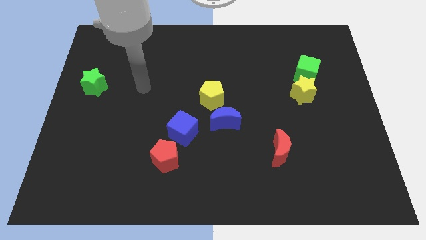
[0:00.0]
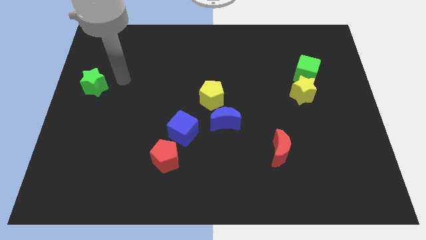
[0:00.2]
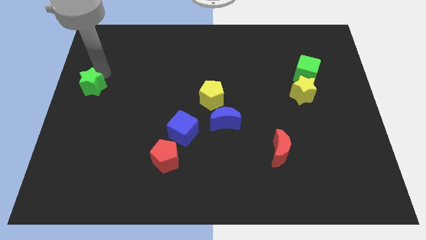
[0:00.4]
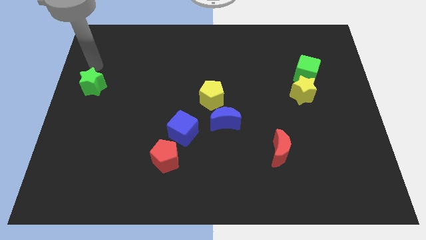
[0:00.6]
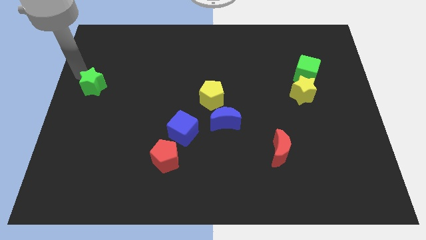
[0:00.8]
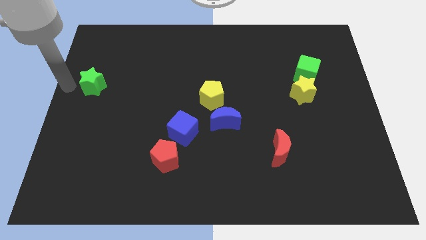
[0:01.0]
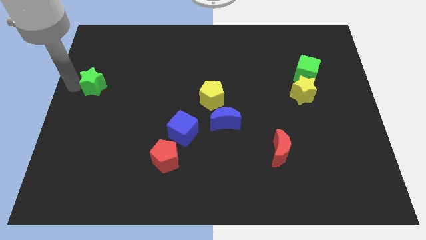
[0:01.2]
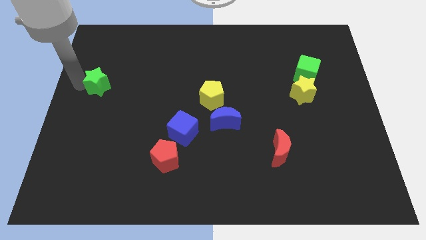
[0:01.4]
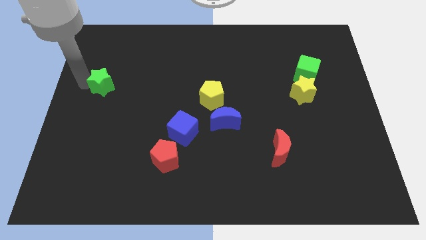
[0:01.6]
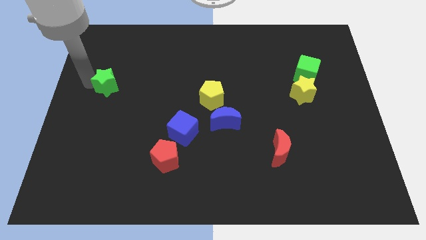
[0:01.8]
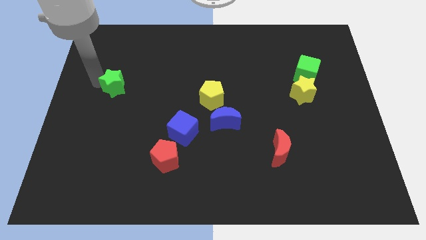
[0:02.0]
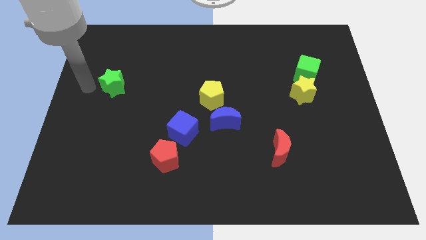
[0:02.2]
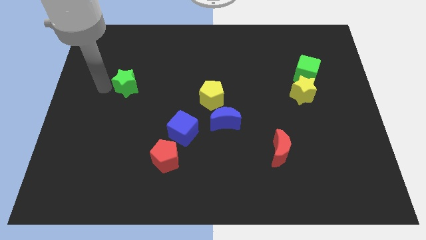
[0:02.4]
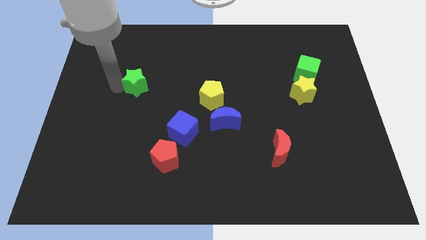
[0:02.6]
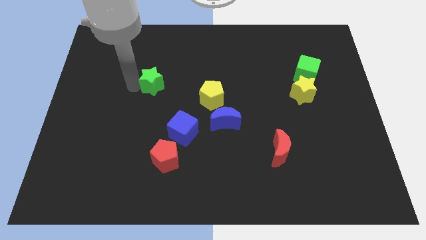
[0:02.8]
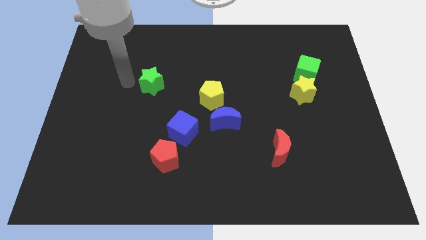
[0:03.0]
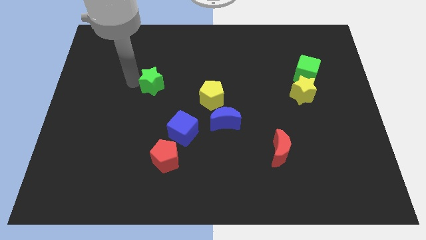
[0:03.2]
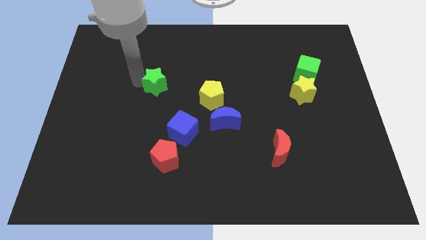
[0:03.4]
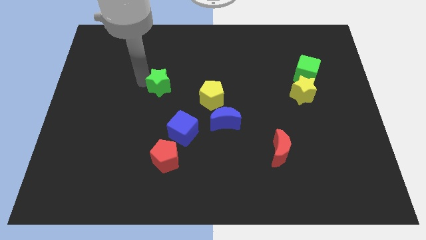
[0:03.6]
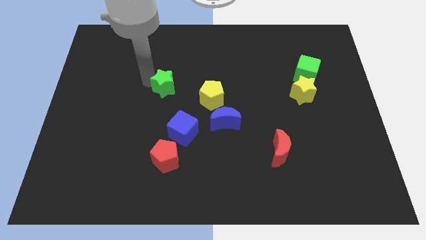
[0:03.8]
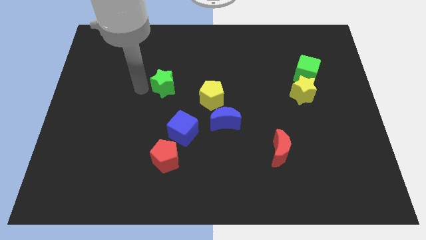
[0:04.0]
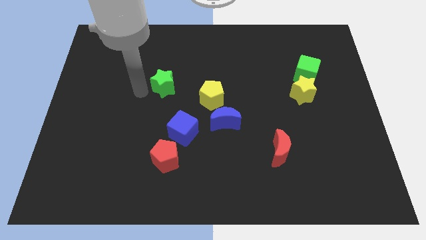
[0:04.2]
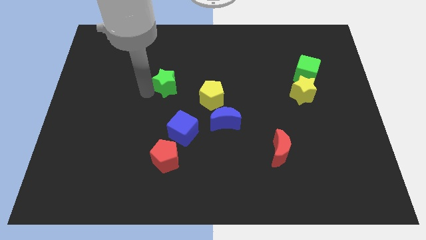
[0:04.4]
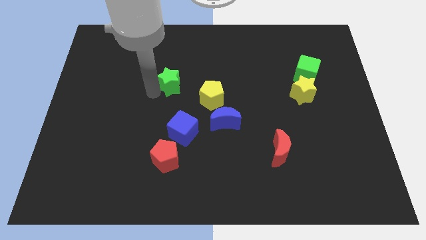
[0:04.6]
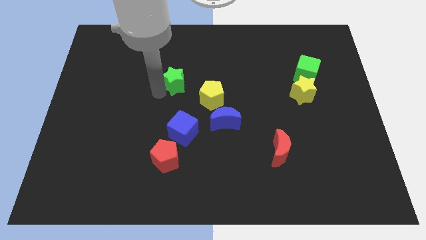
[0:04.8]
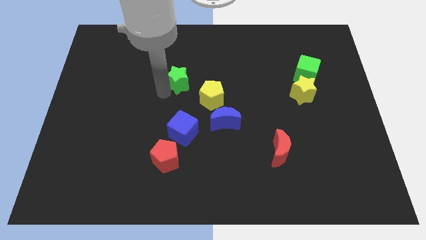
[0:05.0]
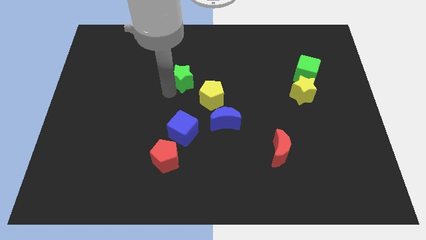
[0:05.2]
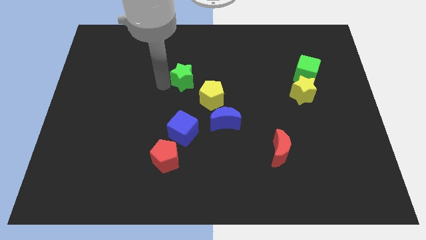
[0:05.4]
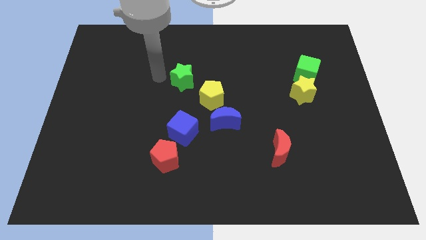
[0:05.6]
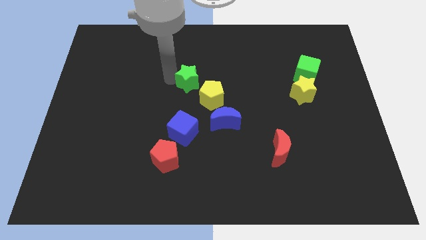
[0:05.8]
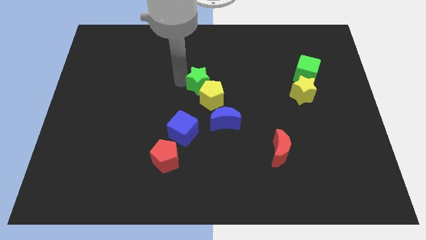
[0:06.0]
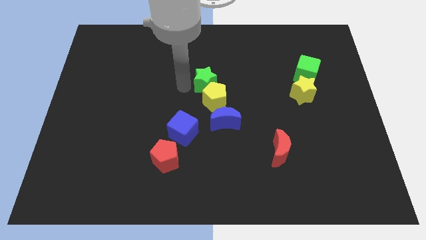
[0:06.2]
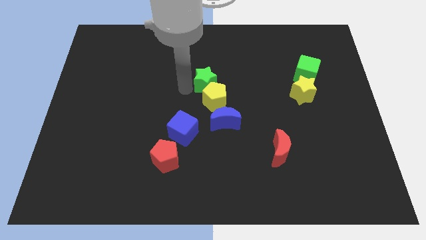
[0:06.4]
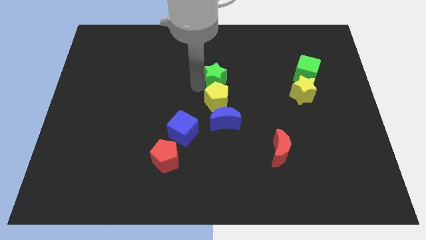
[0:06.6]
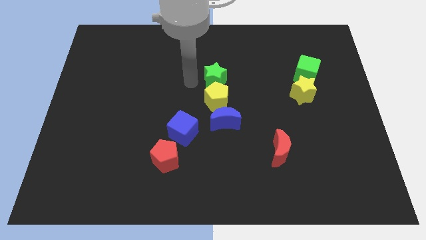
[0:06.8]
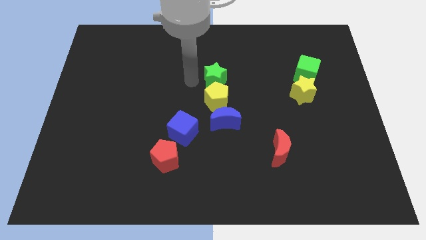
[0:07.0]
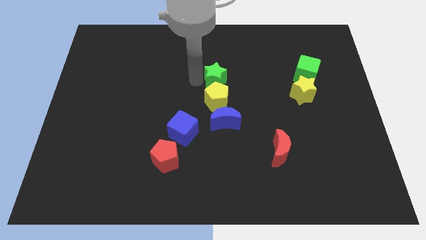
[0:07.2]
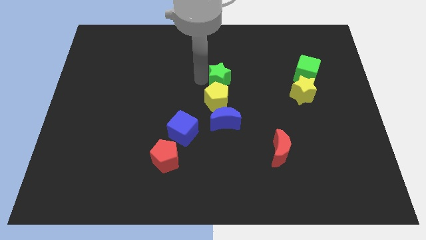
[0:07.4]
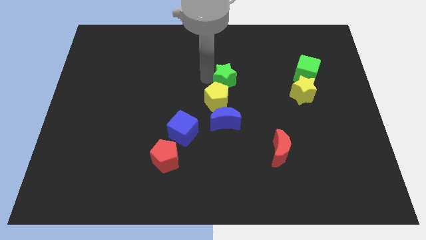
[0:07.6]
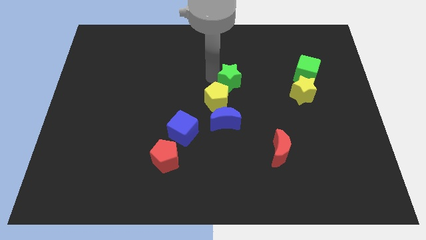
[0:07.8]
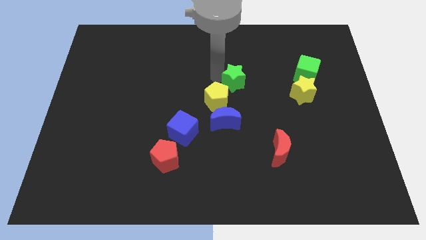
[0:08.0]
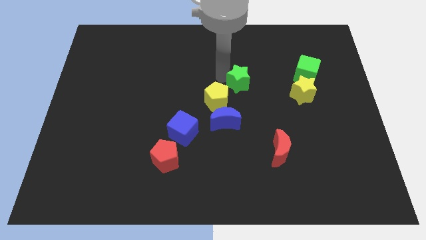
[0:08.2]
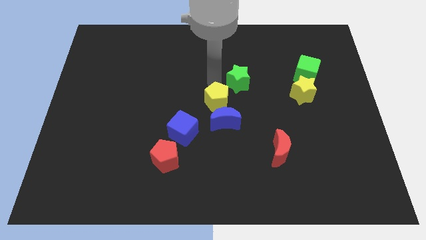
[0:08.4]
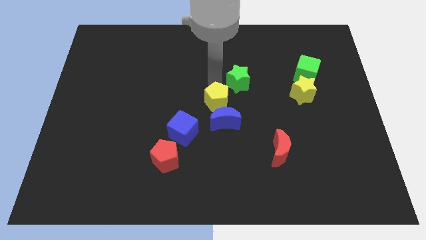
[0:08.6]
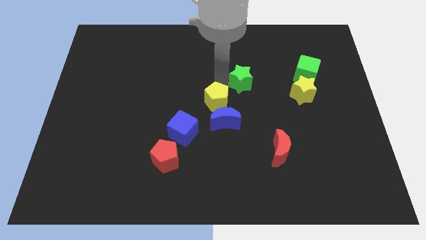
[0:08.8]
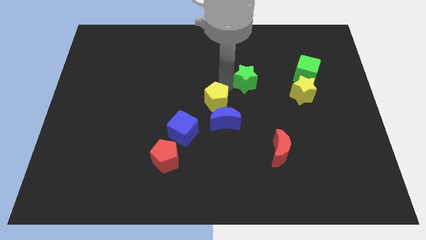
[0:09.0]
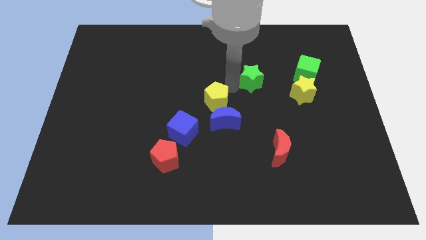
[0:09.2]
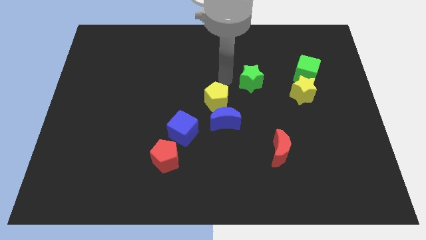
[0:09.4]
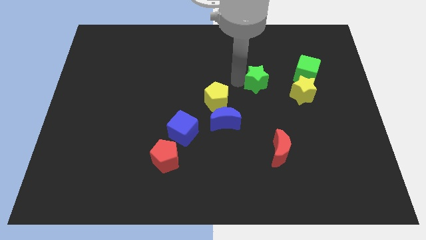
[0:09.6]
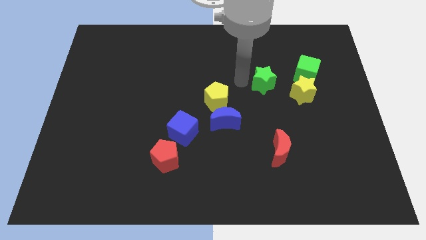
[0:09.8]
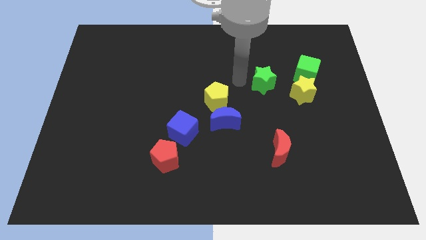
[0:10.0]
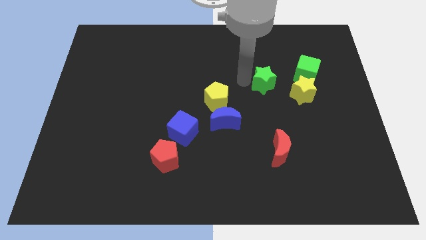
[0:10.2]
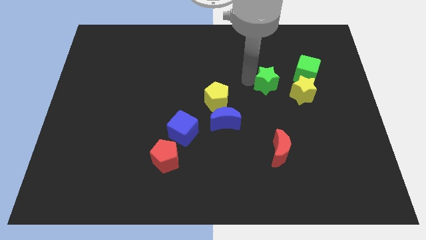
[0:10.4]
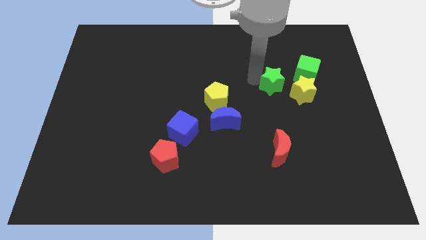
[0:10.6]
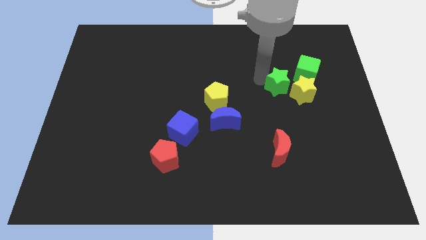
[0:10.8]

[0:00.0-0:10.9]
move the green star towards the yellow star

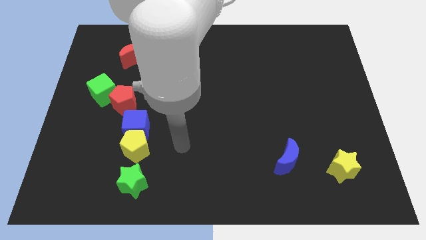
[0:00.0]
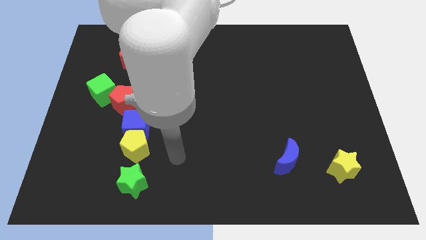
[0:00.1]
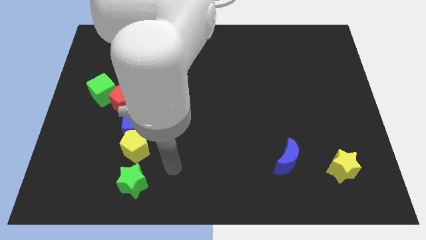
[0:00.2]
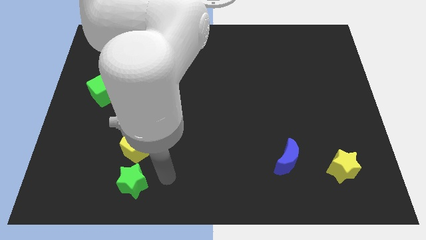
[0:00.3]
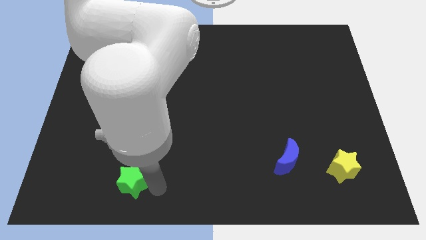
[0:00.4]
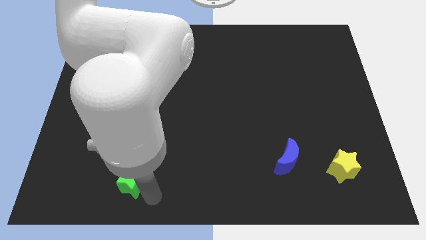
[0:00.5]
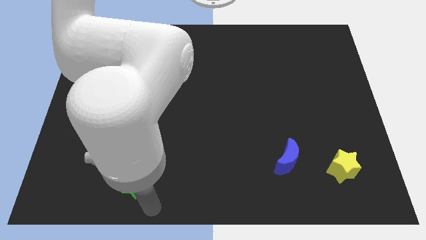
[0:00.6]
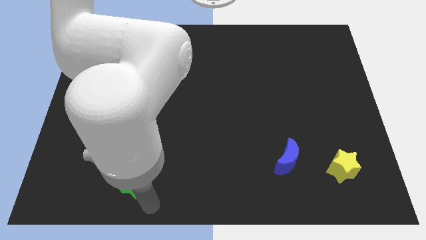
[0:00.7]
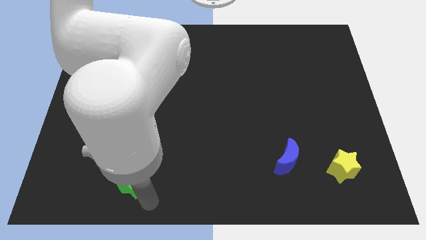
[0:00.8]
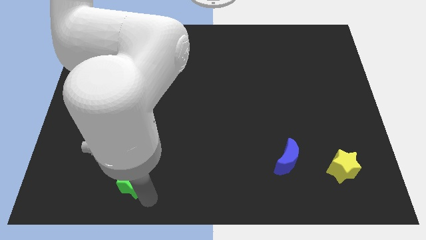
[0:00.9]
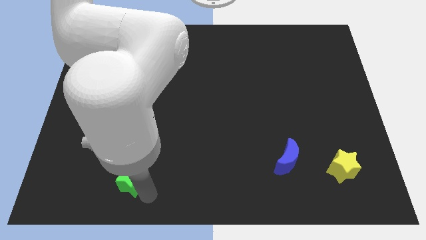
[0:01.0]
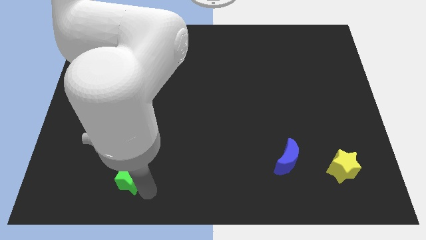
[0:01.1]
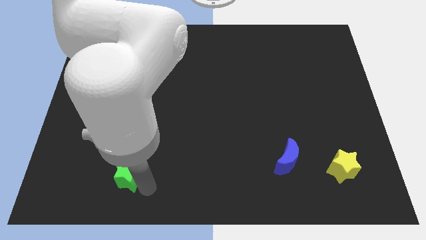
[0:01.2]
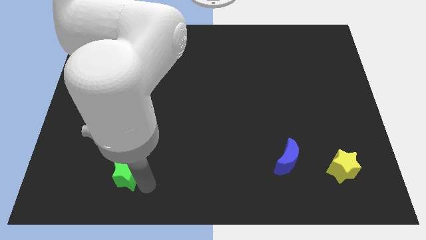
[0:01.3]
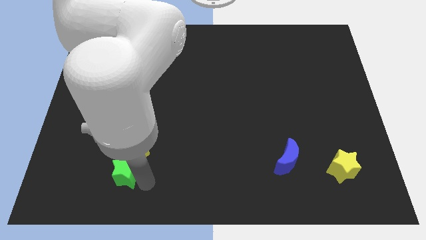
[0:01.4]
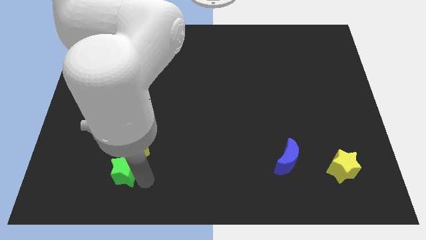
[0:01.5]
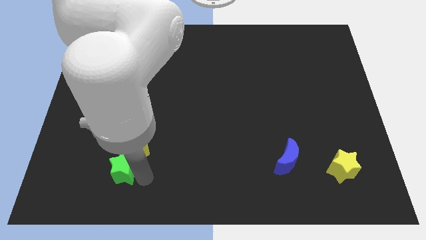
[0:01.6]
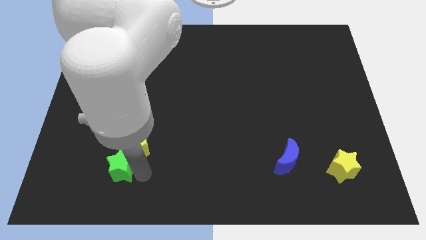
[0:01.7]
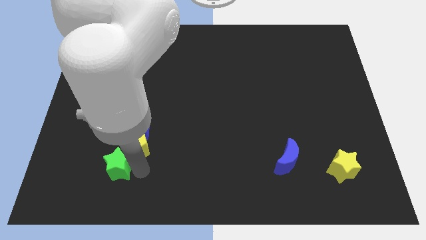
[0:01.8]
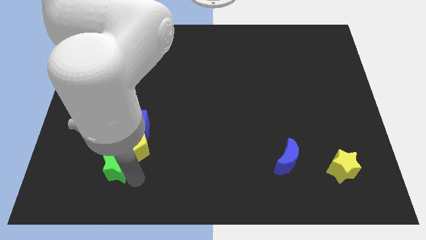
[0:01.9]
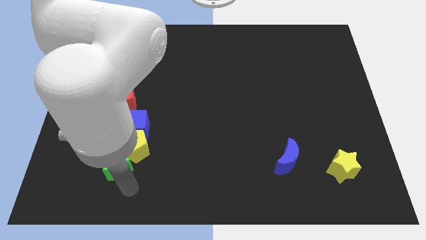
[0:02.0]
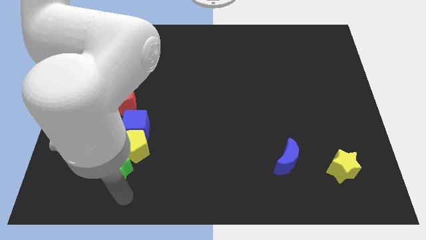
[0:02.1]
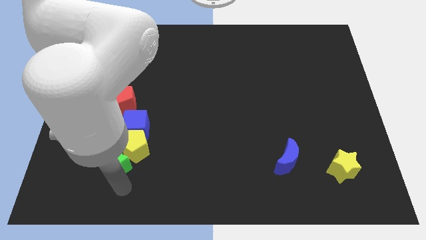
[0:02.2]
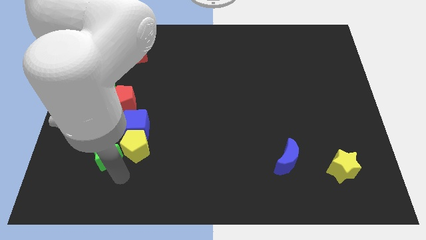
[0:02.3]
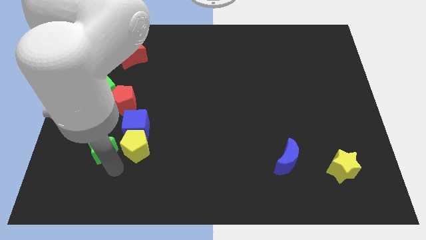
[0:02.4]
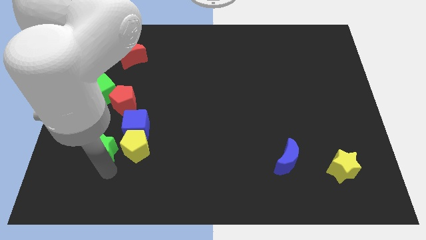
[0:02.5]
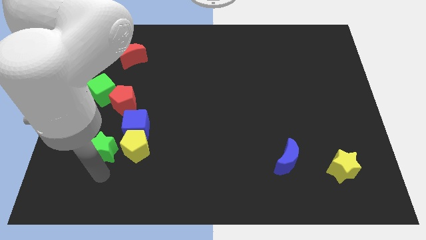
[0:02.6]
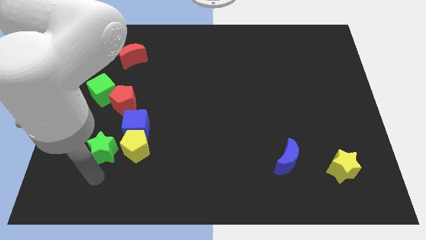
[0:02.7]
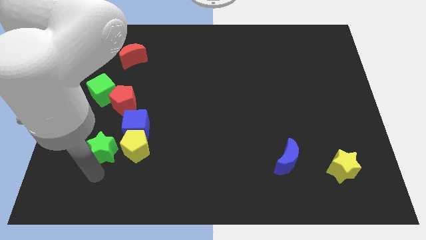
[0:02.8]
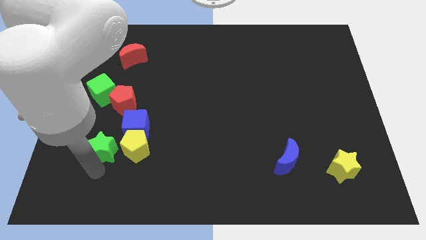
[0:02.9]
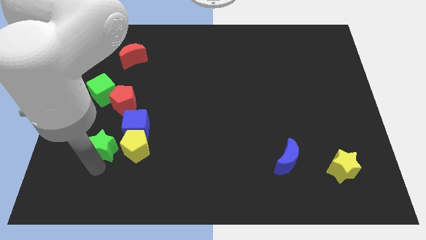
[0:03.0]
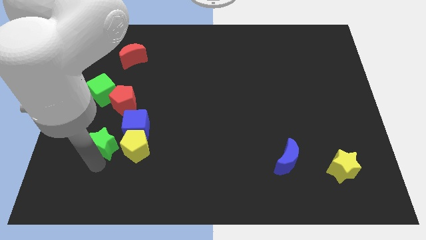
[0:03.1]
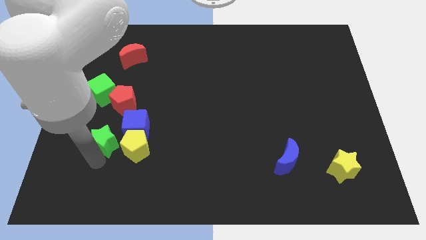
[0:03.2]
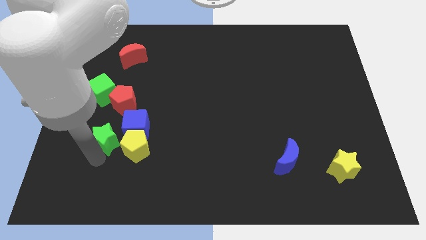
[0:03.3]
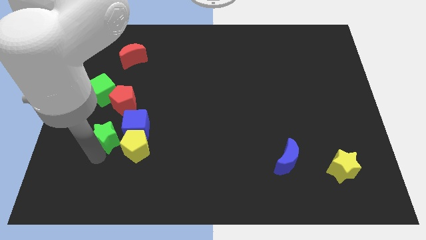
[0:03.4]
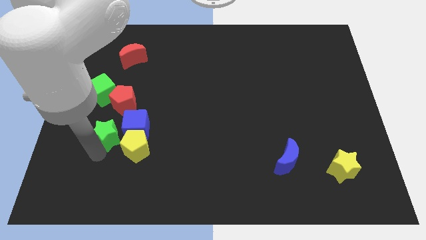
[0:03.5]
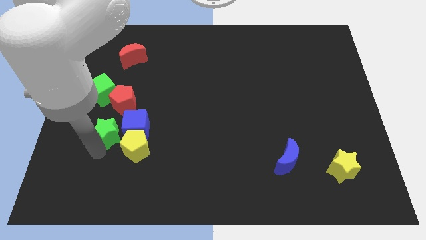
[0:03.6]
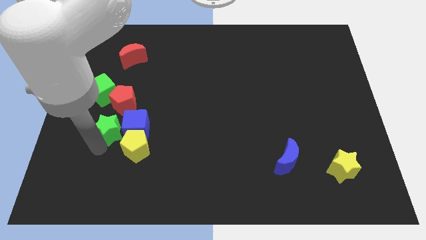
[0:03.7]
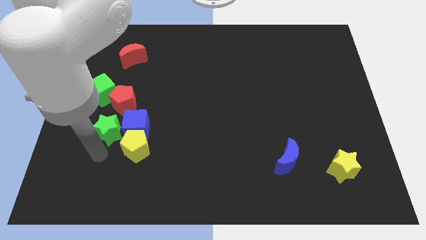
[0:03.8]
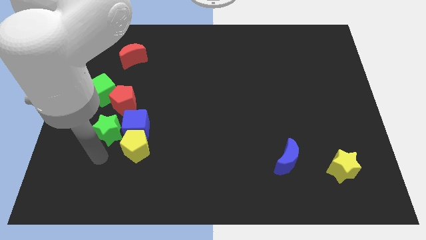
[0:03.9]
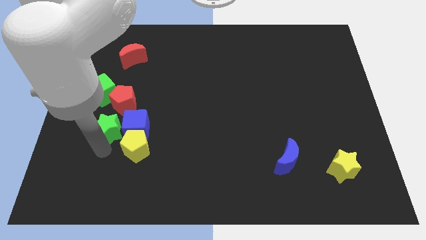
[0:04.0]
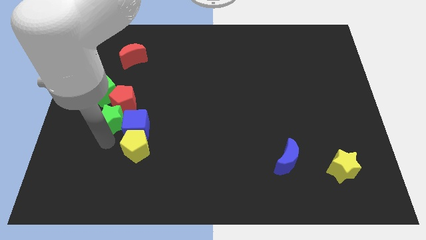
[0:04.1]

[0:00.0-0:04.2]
slide the green star towards the red pentagon
